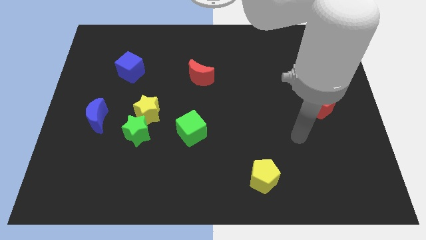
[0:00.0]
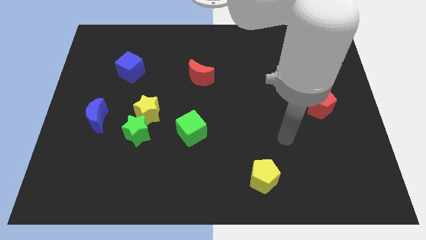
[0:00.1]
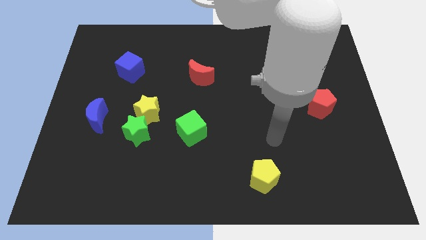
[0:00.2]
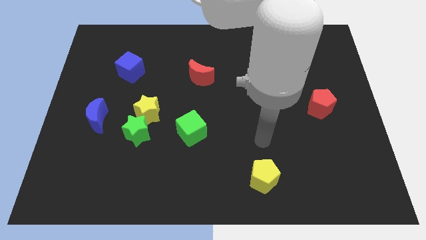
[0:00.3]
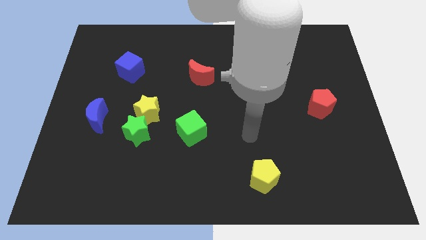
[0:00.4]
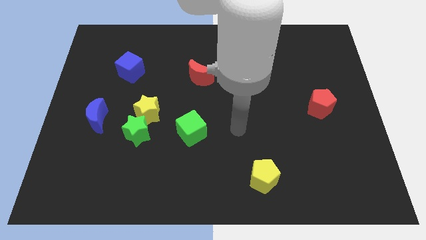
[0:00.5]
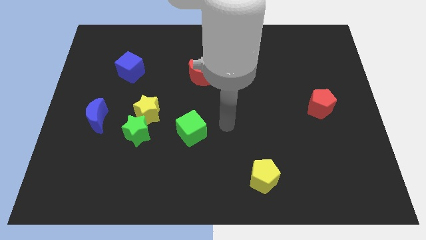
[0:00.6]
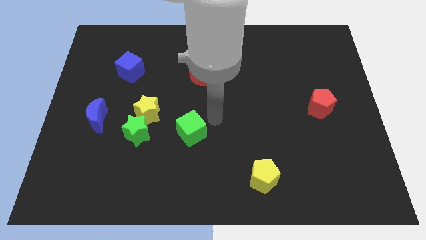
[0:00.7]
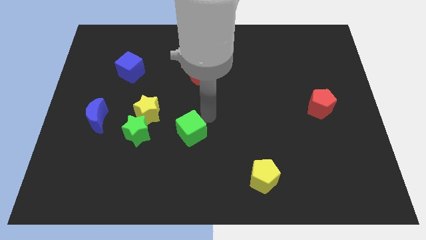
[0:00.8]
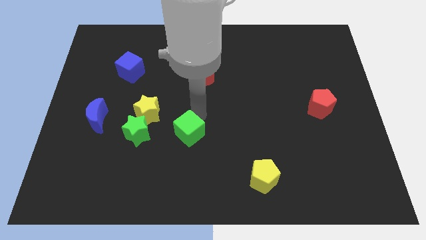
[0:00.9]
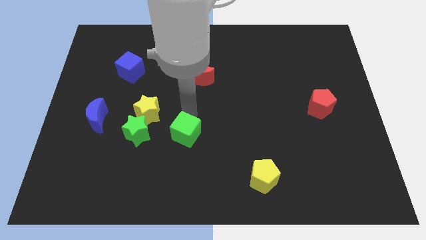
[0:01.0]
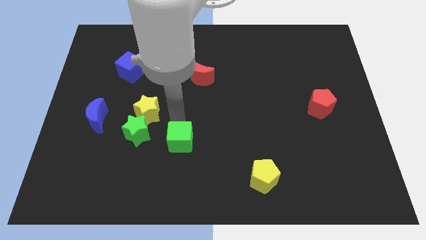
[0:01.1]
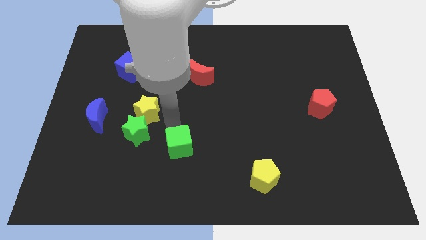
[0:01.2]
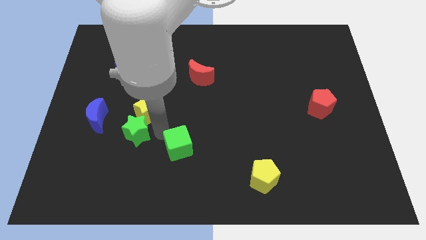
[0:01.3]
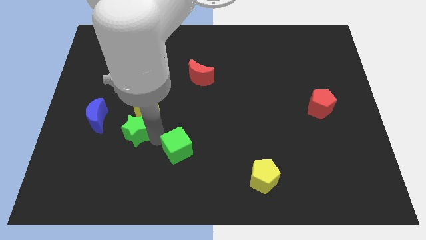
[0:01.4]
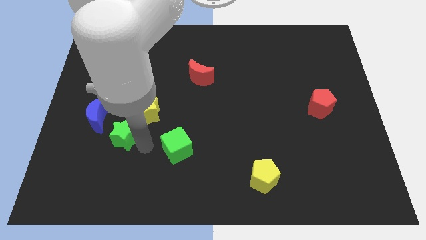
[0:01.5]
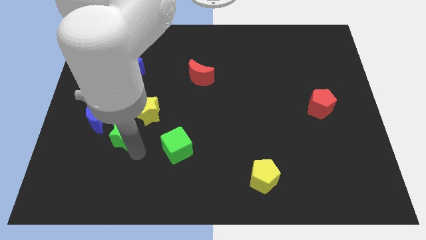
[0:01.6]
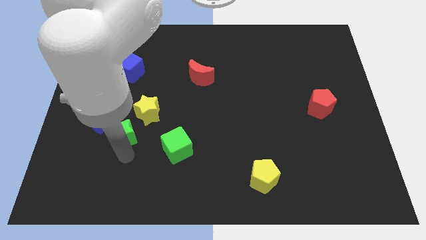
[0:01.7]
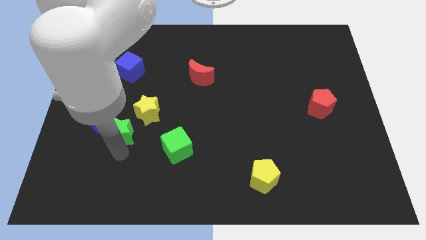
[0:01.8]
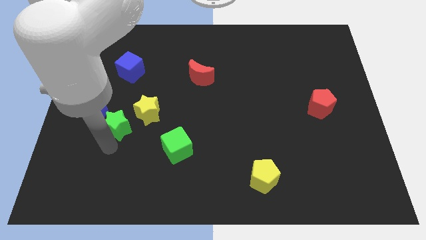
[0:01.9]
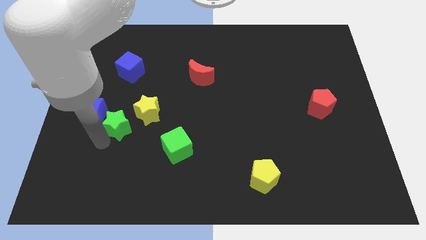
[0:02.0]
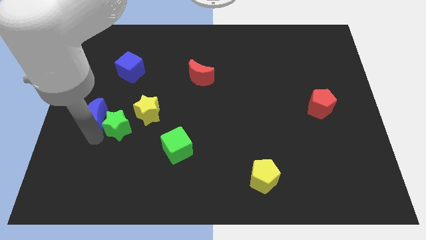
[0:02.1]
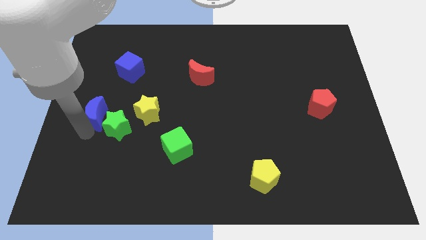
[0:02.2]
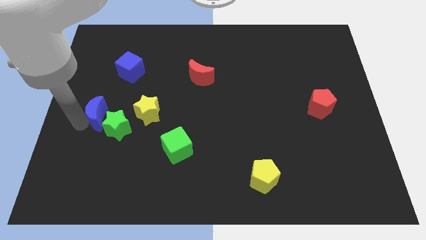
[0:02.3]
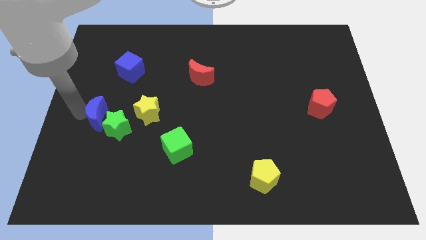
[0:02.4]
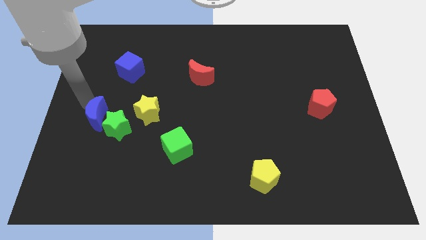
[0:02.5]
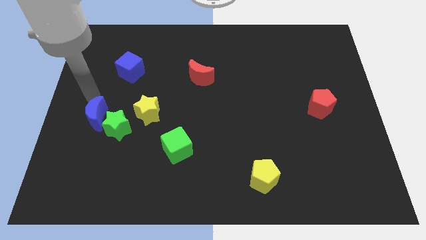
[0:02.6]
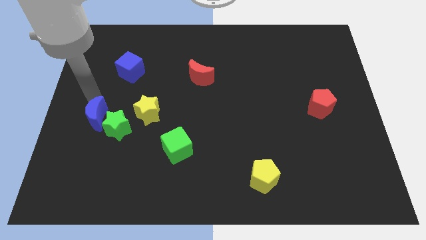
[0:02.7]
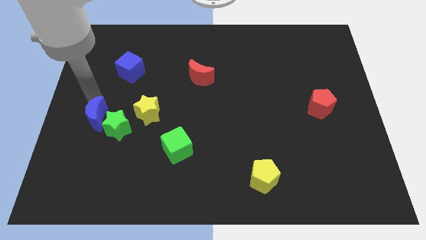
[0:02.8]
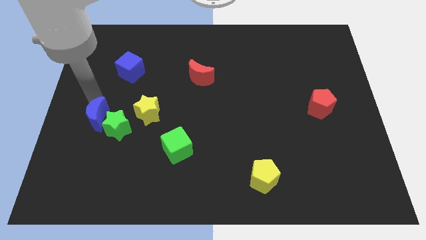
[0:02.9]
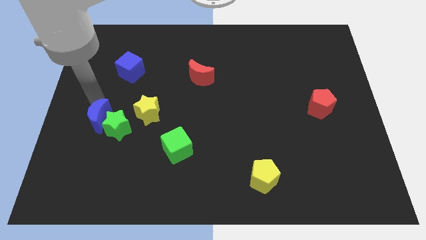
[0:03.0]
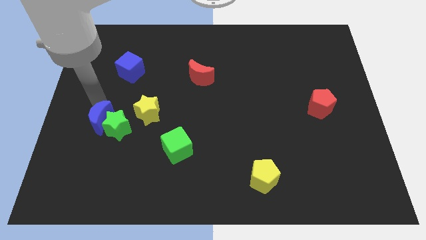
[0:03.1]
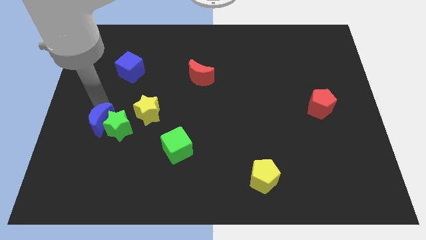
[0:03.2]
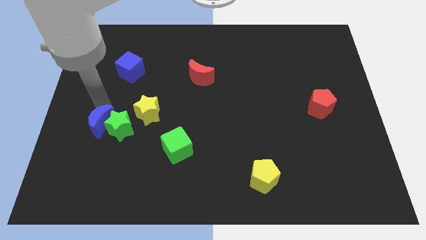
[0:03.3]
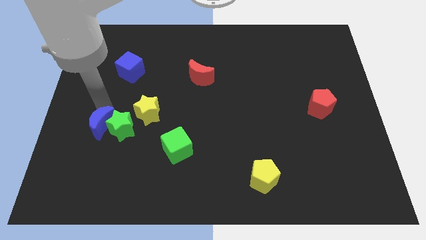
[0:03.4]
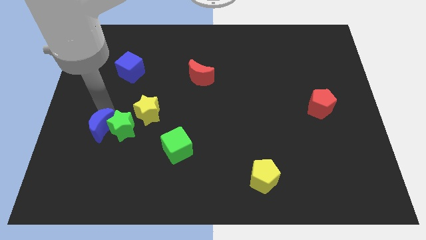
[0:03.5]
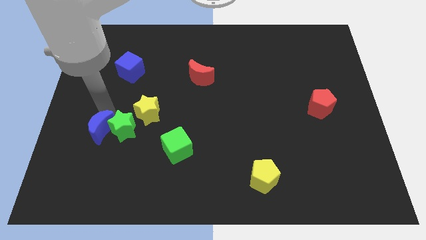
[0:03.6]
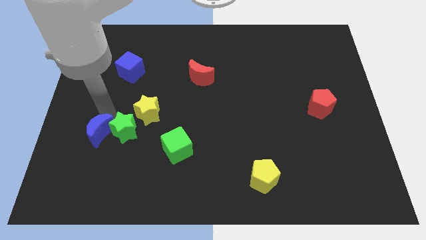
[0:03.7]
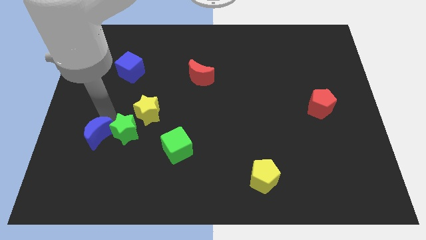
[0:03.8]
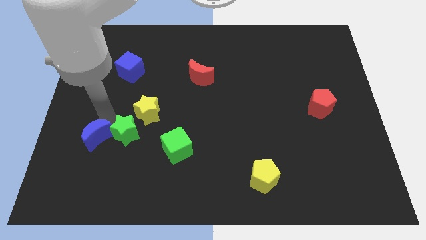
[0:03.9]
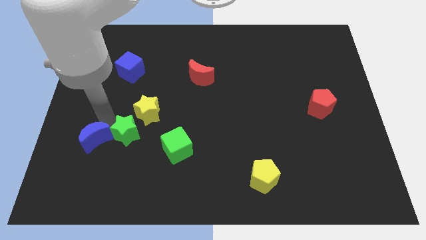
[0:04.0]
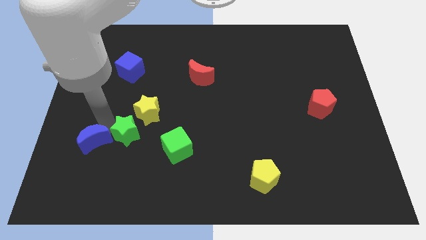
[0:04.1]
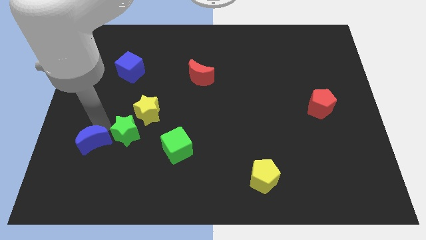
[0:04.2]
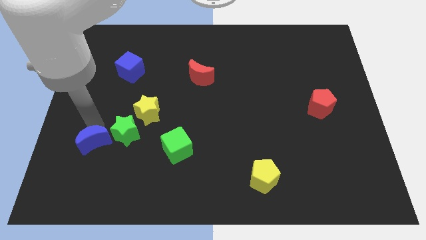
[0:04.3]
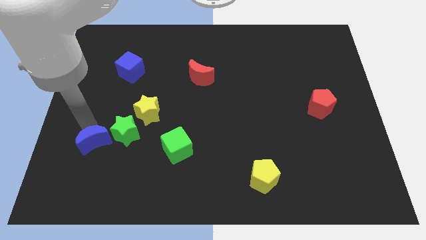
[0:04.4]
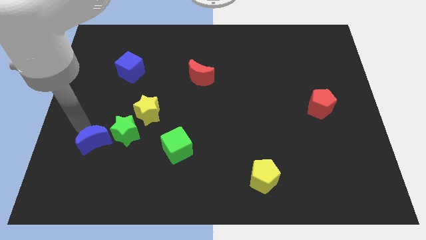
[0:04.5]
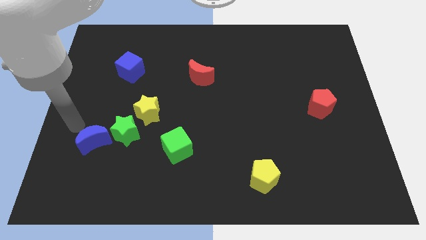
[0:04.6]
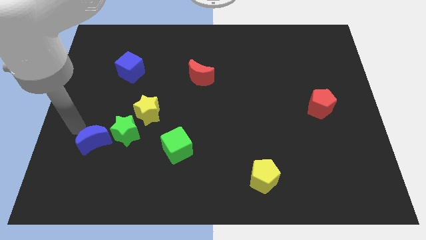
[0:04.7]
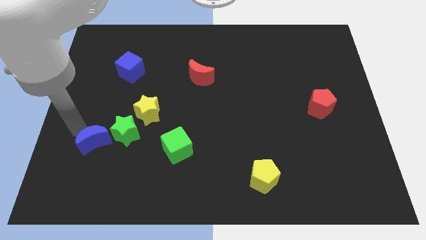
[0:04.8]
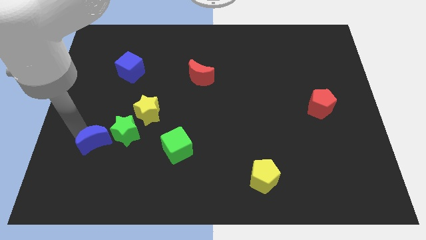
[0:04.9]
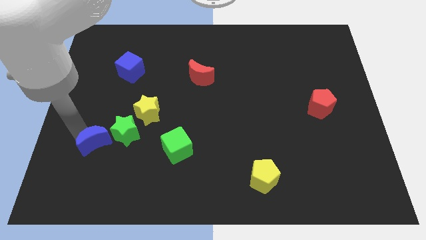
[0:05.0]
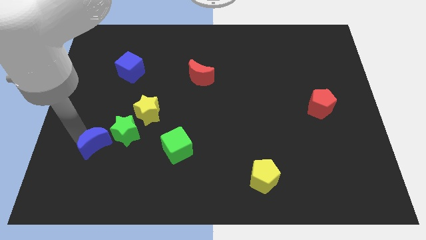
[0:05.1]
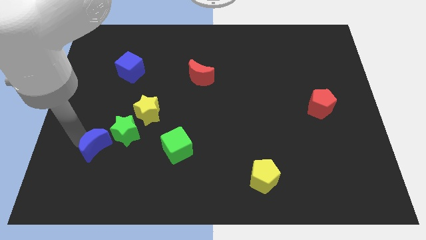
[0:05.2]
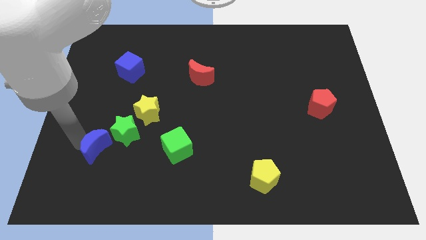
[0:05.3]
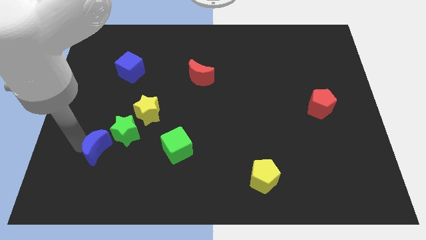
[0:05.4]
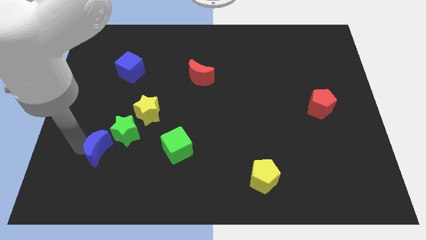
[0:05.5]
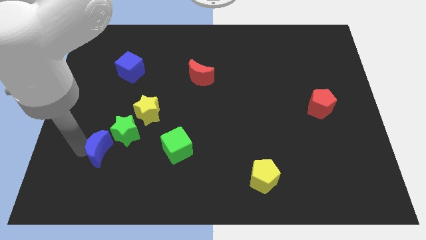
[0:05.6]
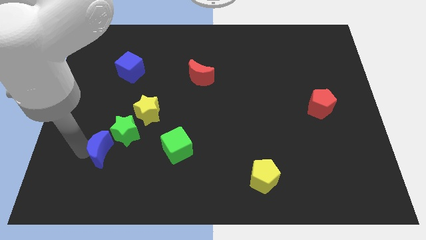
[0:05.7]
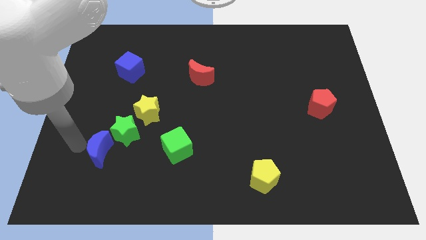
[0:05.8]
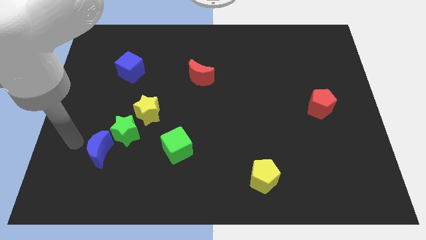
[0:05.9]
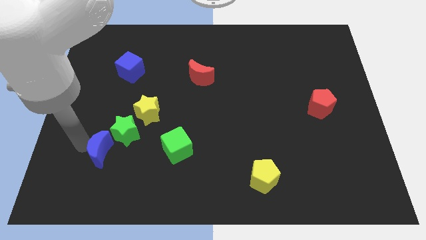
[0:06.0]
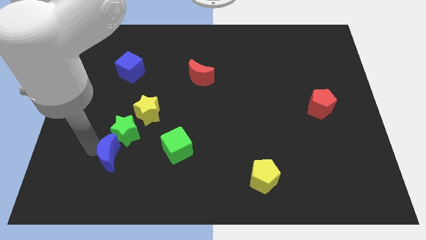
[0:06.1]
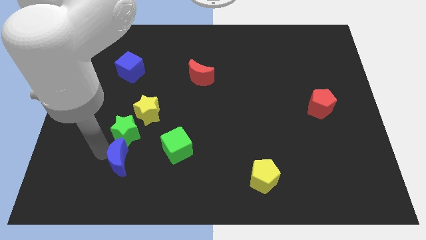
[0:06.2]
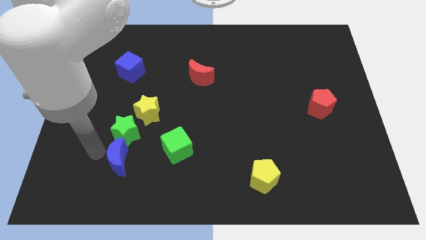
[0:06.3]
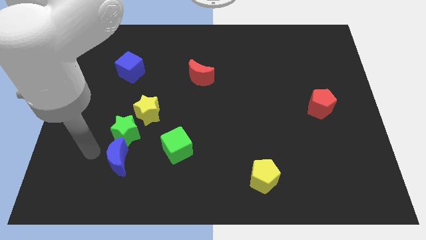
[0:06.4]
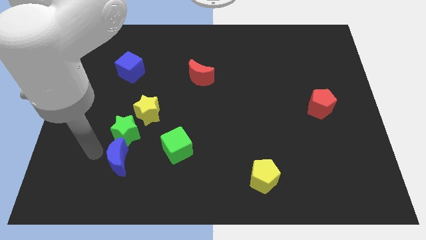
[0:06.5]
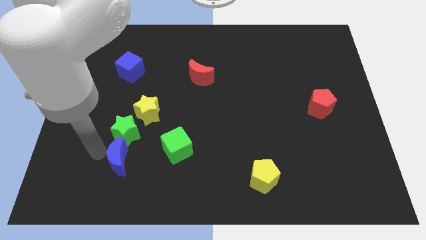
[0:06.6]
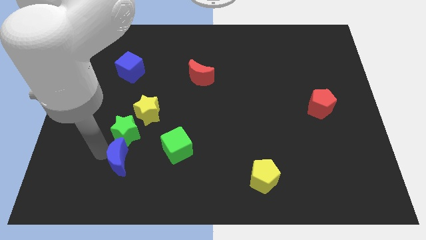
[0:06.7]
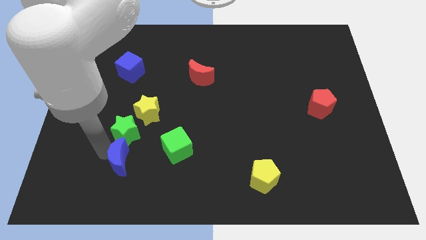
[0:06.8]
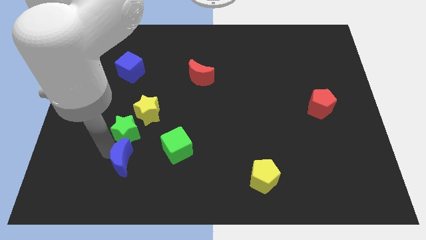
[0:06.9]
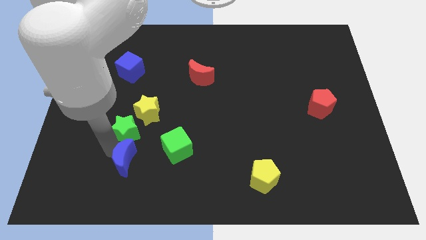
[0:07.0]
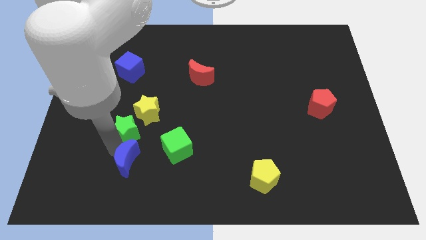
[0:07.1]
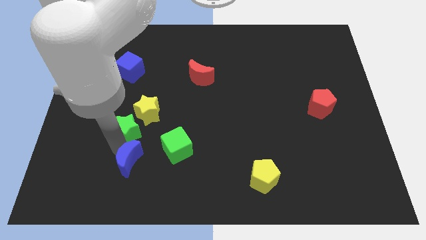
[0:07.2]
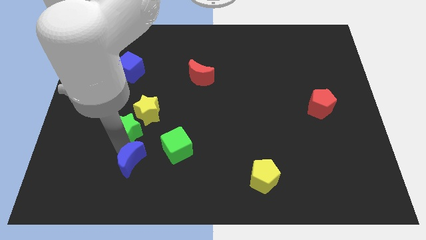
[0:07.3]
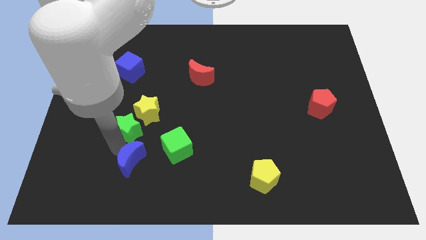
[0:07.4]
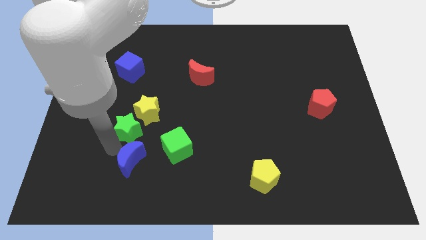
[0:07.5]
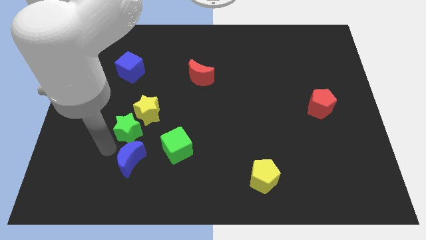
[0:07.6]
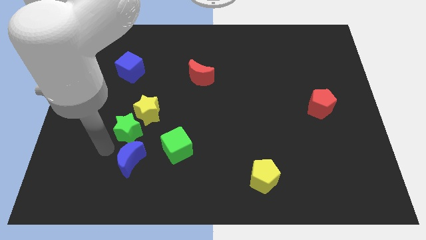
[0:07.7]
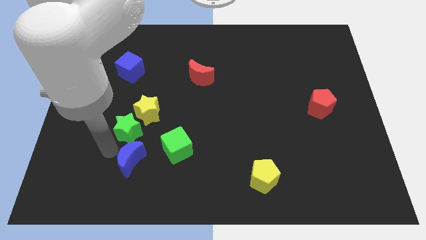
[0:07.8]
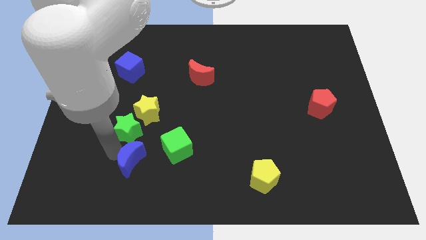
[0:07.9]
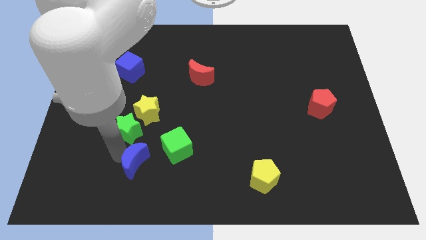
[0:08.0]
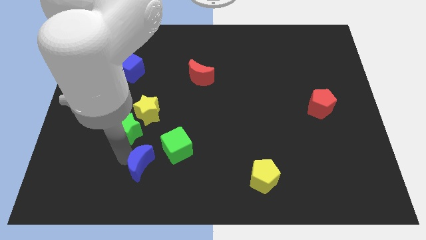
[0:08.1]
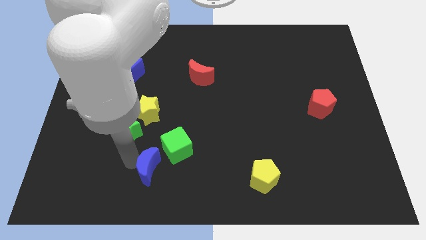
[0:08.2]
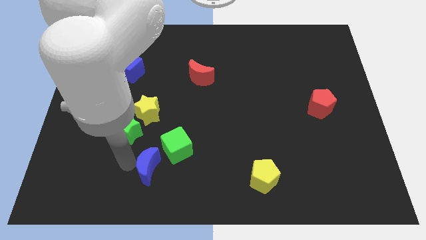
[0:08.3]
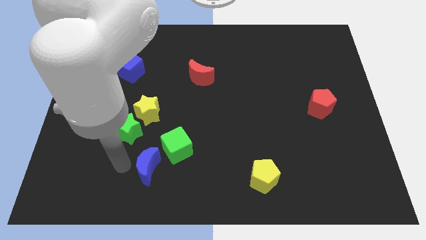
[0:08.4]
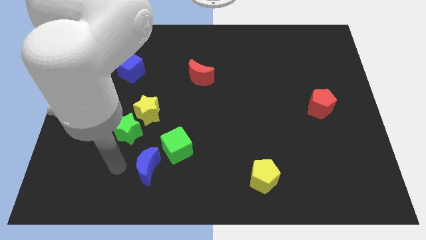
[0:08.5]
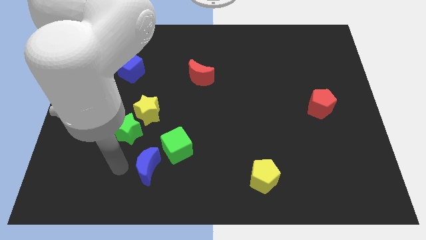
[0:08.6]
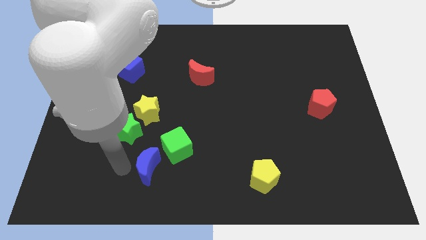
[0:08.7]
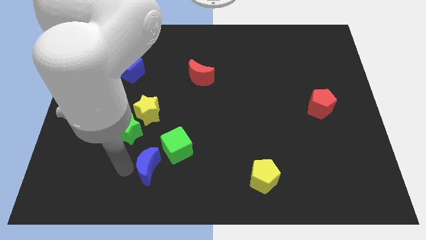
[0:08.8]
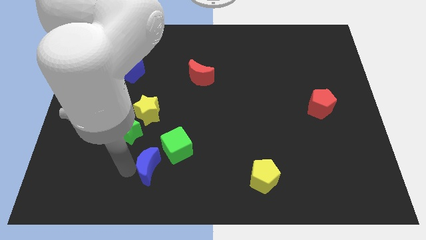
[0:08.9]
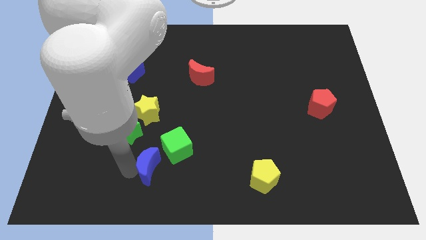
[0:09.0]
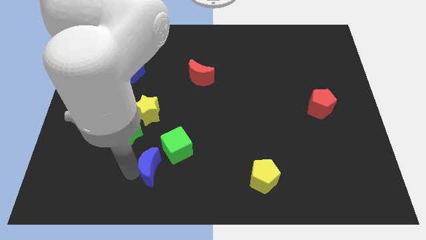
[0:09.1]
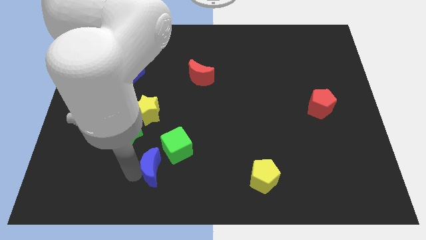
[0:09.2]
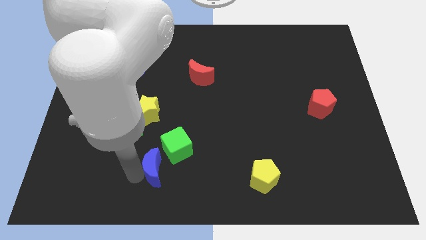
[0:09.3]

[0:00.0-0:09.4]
move the blue moon to the bottom side of the green cube
